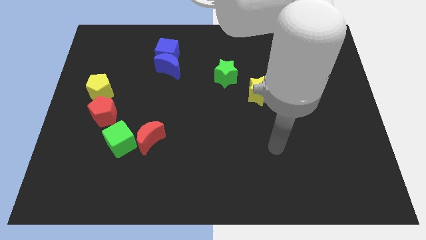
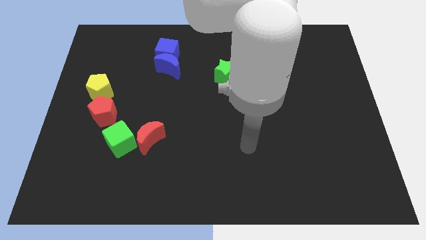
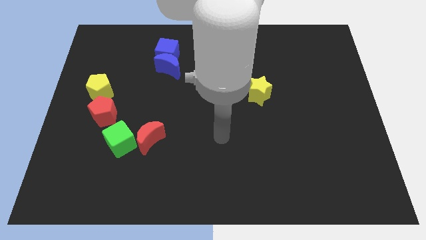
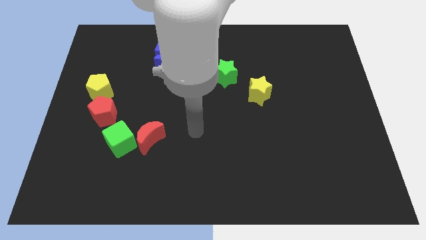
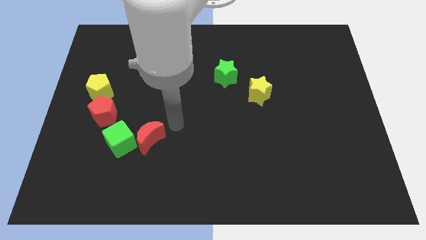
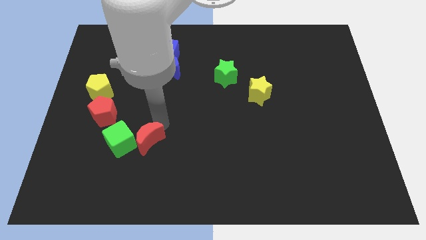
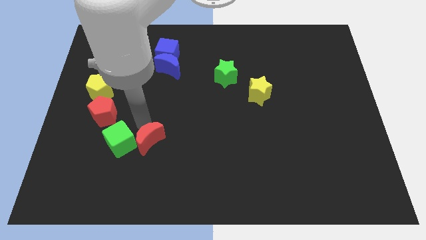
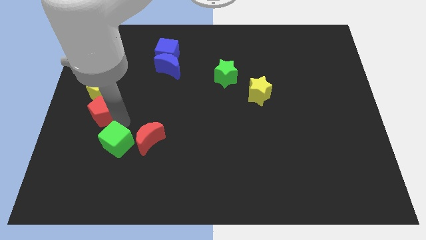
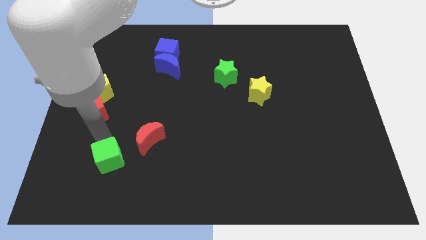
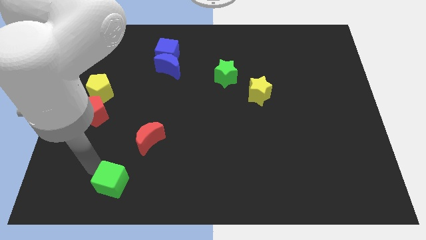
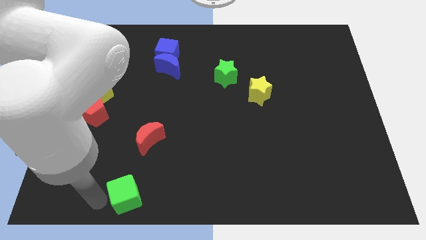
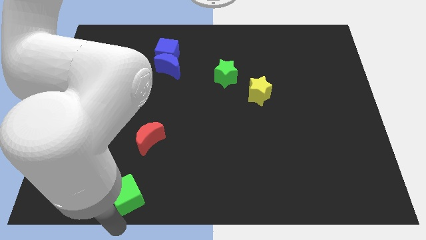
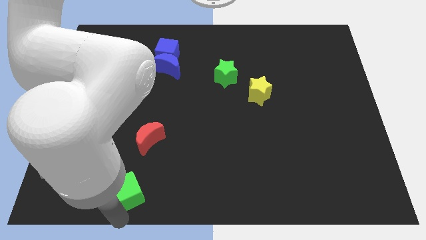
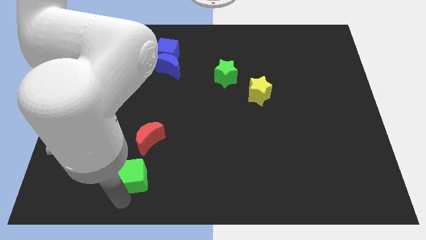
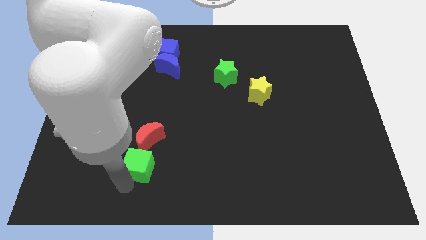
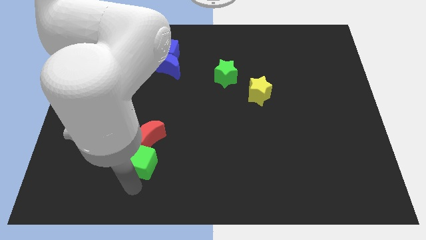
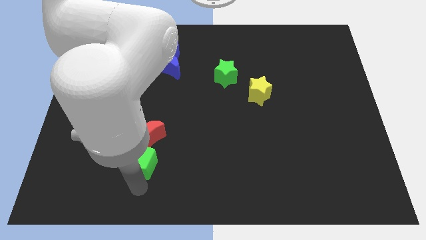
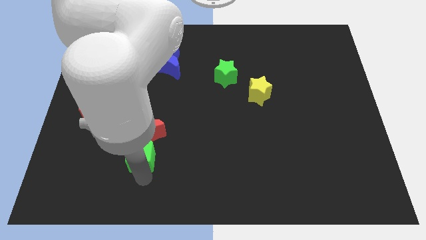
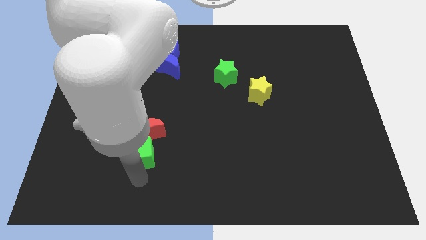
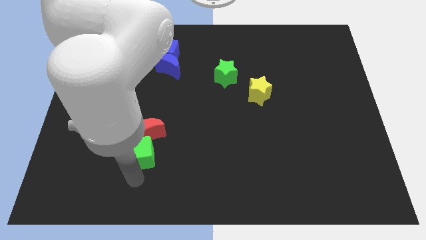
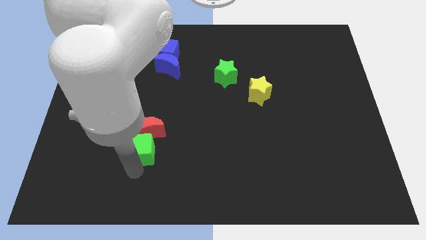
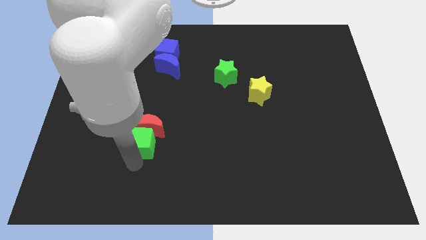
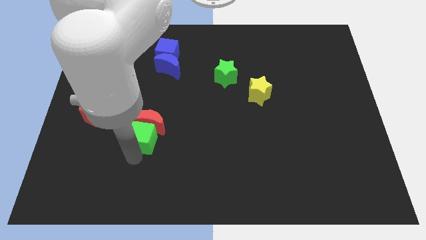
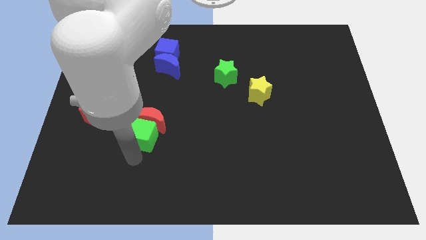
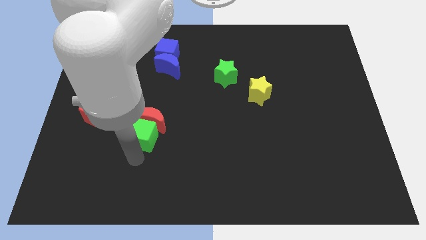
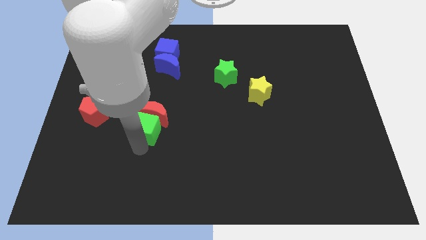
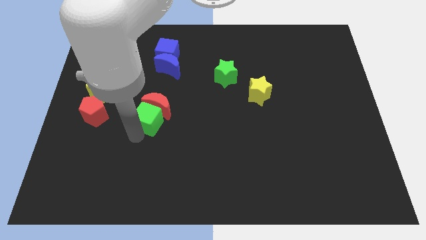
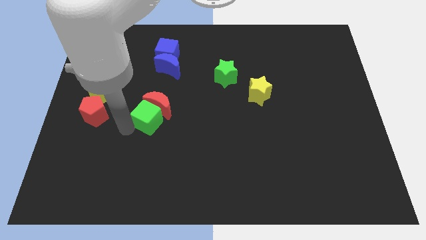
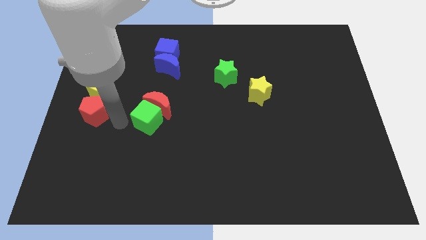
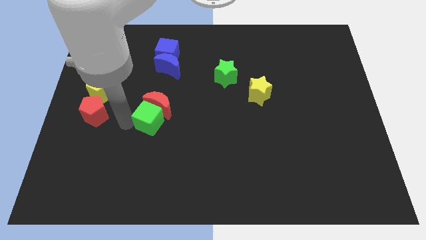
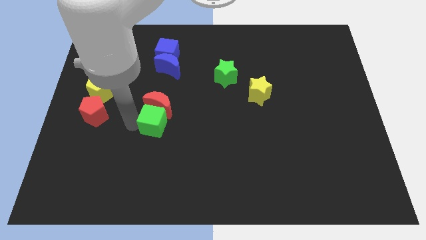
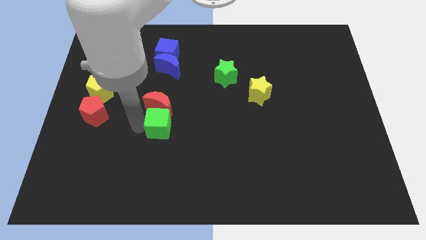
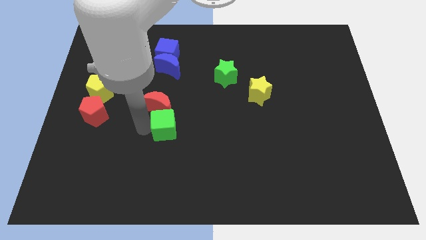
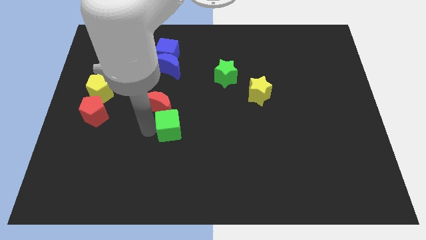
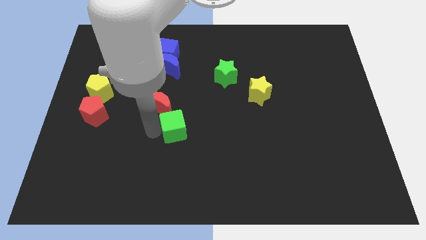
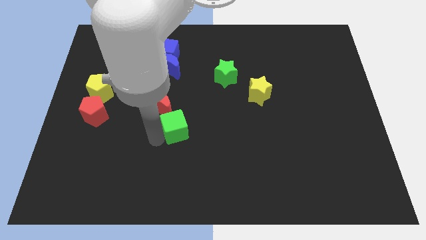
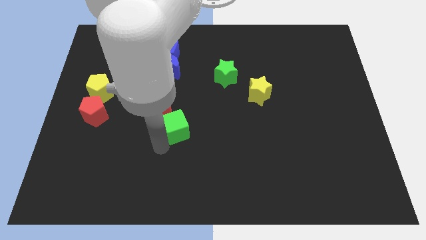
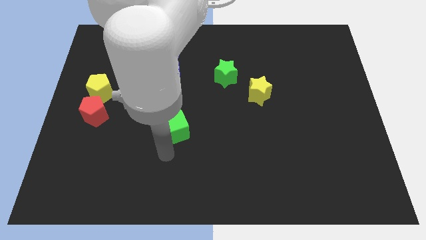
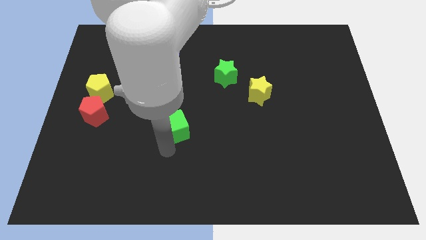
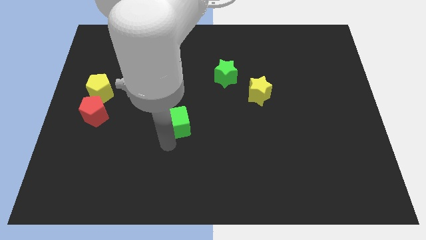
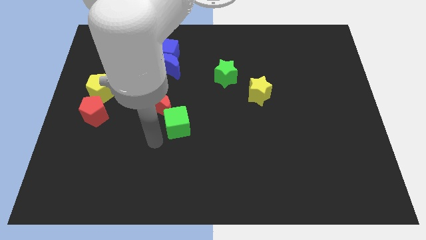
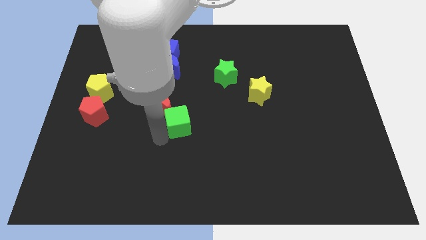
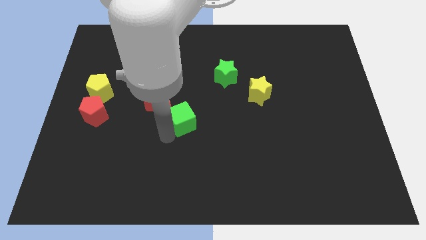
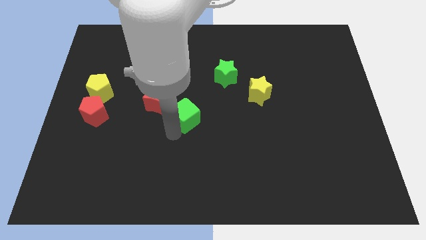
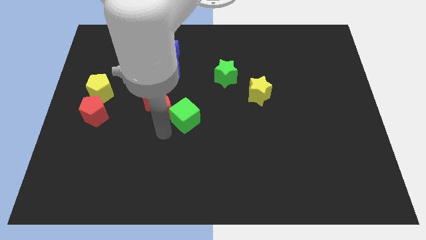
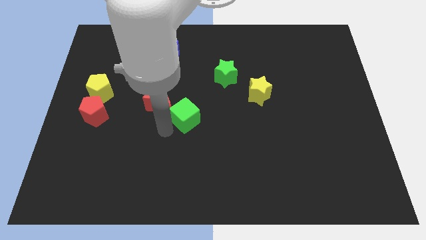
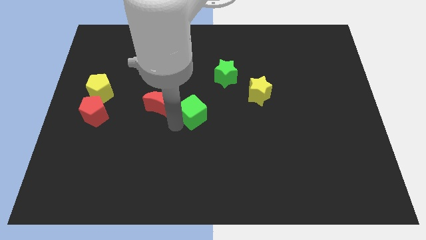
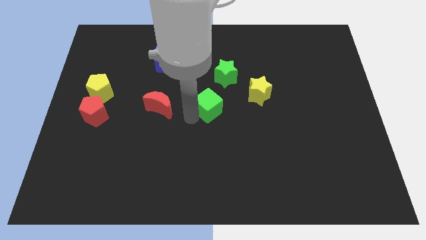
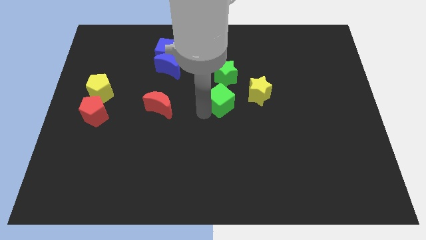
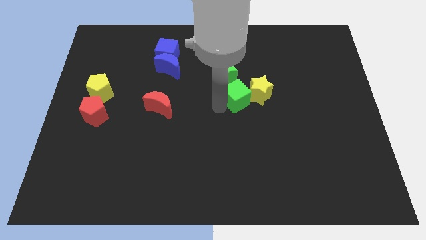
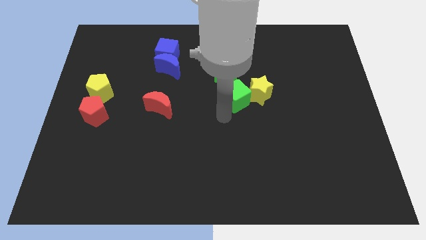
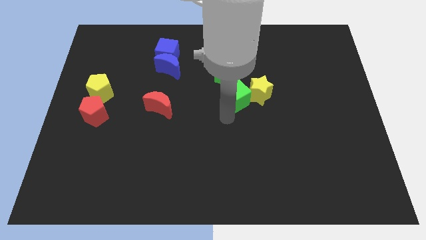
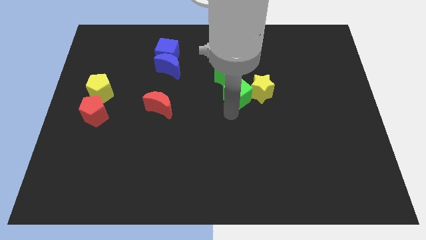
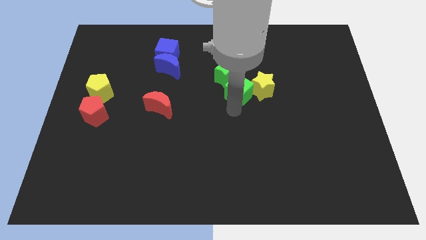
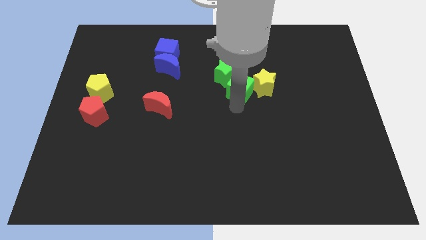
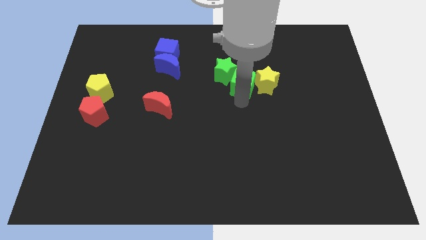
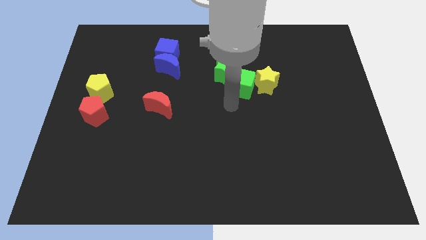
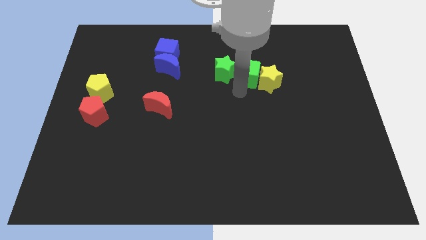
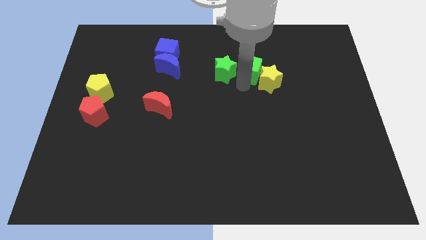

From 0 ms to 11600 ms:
slide the green cube to the top side of the yellow star

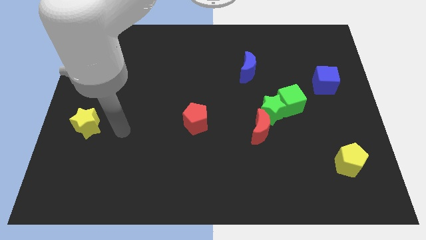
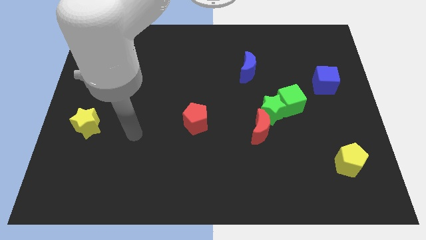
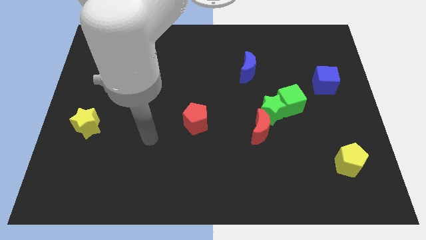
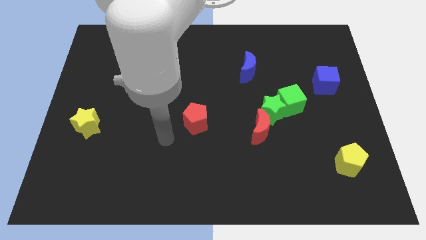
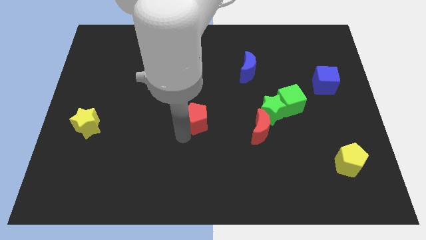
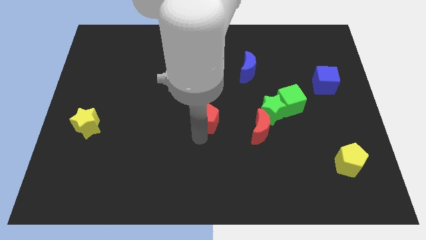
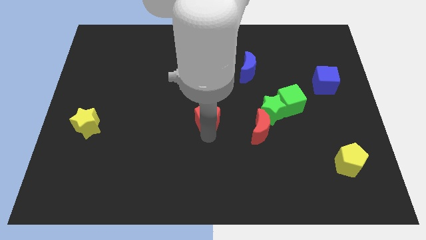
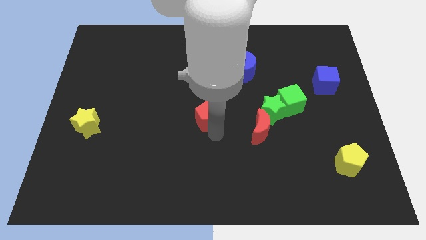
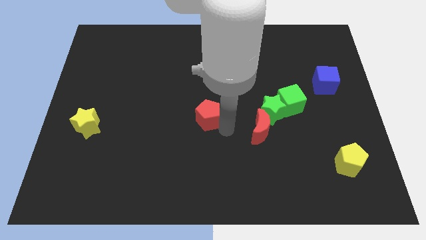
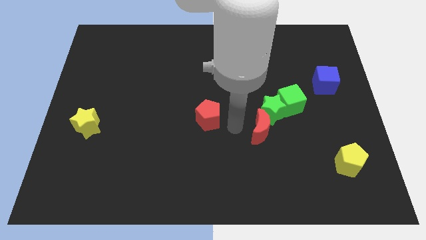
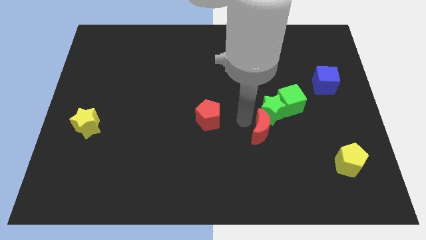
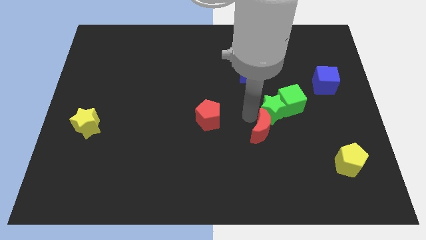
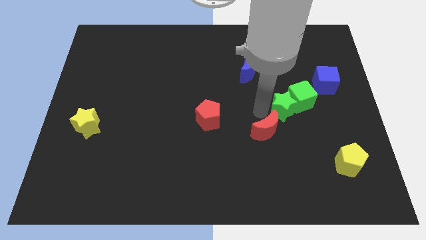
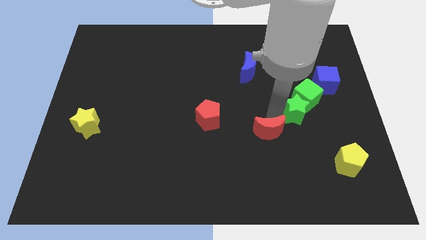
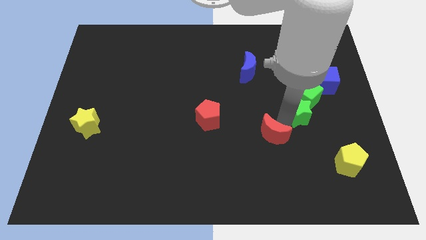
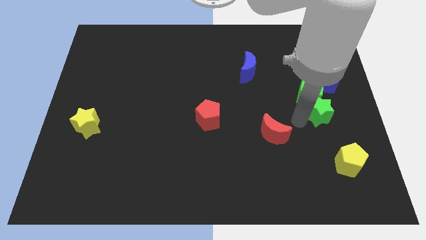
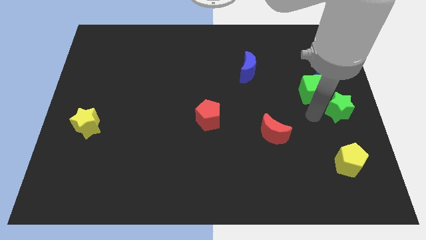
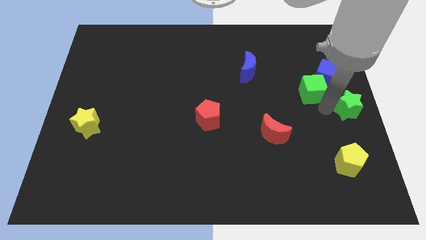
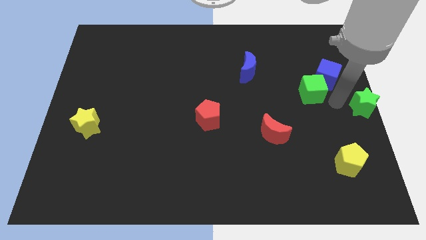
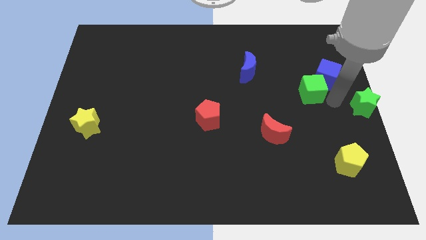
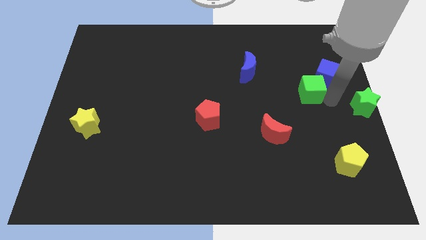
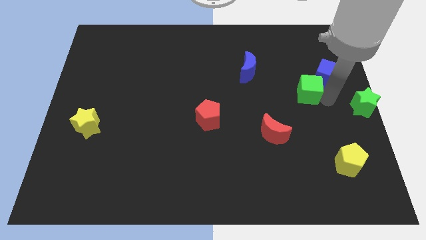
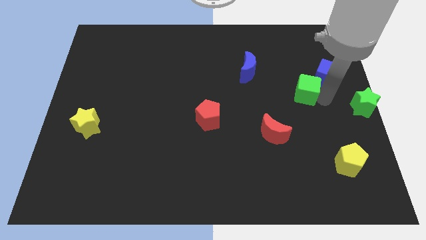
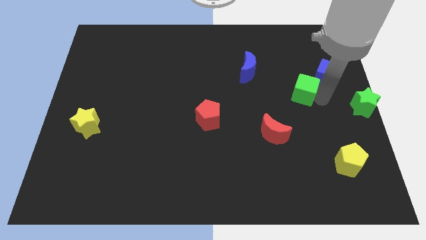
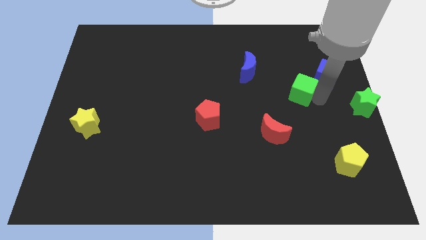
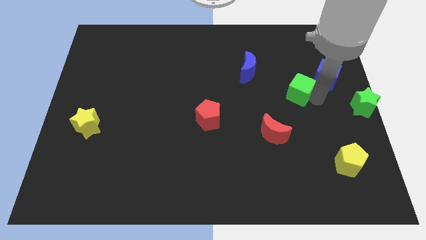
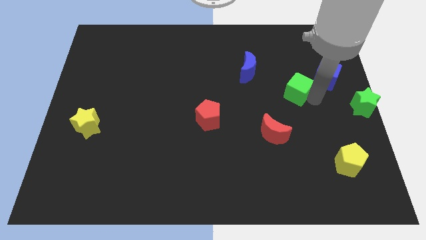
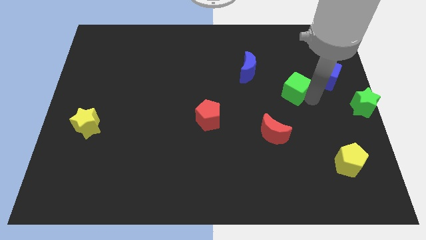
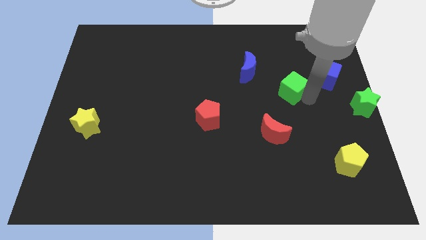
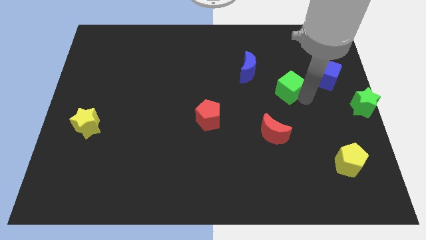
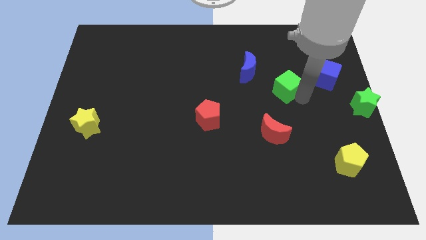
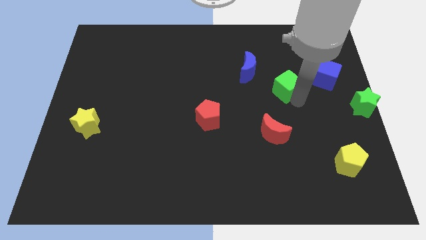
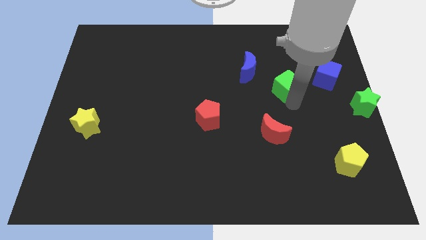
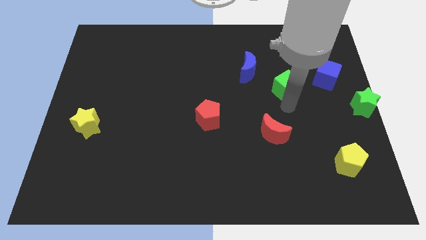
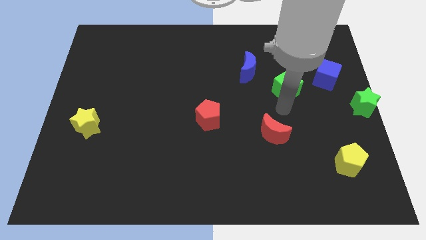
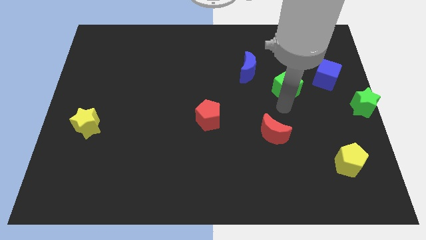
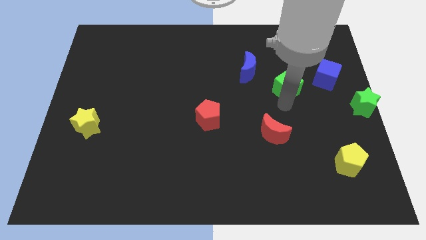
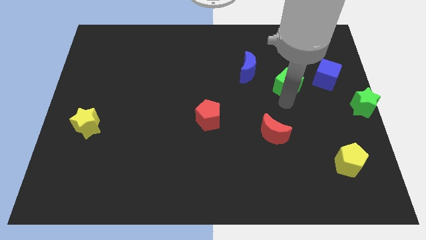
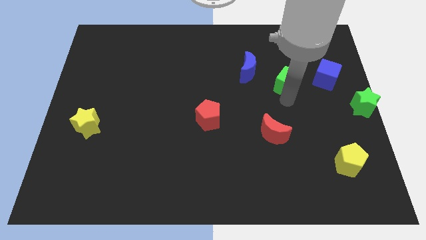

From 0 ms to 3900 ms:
move the green cube to the right side of the blue moon
